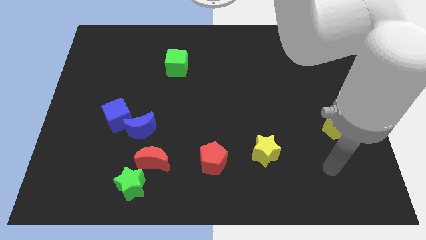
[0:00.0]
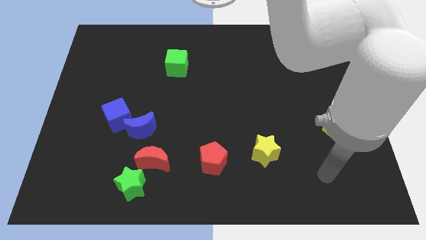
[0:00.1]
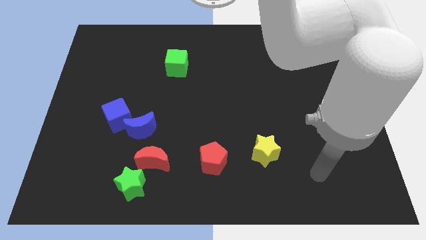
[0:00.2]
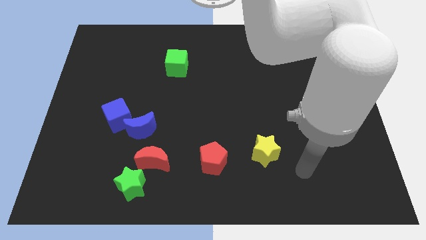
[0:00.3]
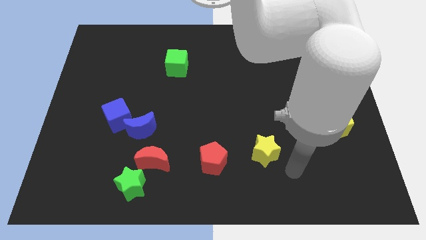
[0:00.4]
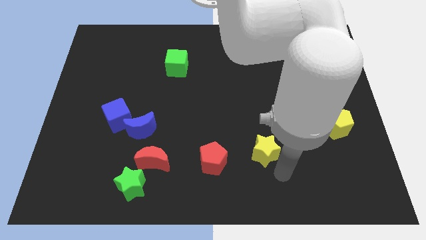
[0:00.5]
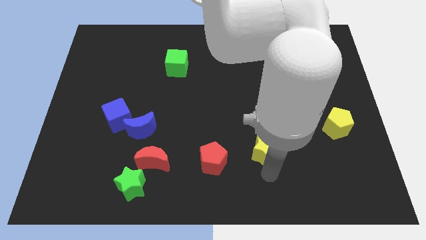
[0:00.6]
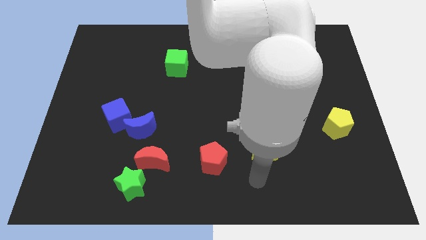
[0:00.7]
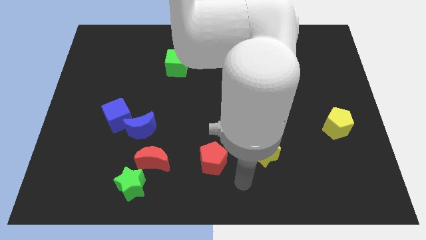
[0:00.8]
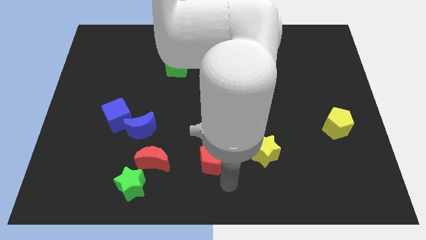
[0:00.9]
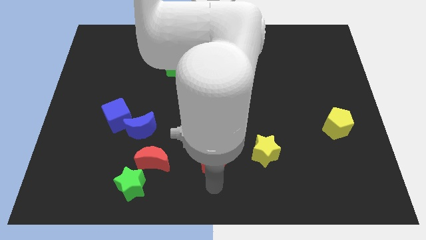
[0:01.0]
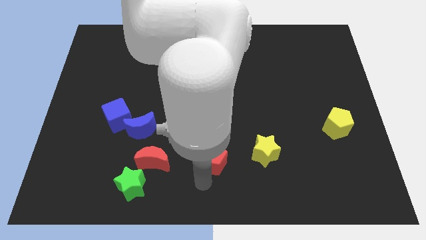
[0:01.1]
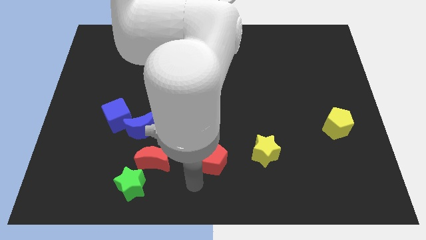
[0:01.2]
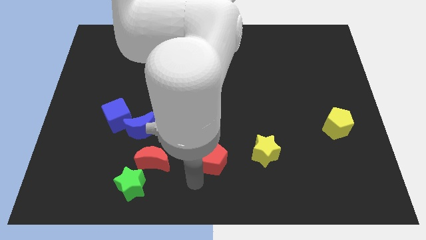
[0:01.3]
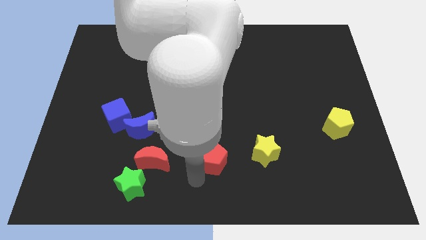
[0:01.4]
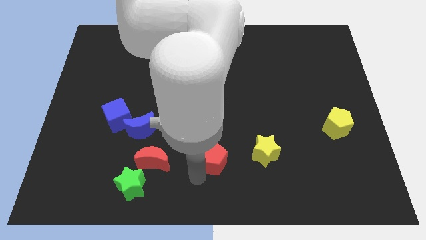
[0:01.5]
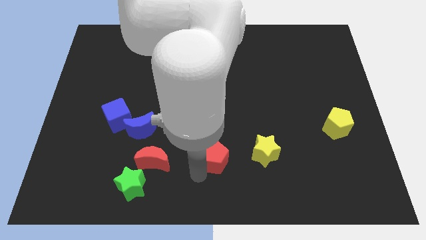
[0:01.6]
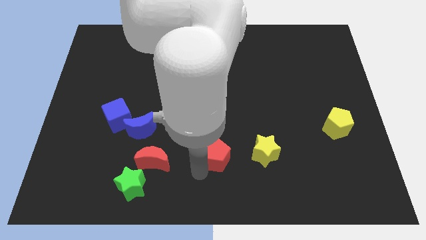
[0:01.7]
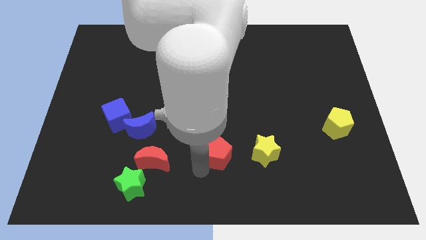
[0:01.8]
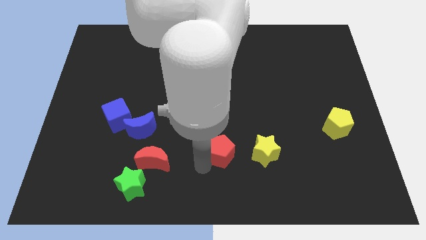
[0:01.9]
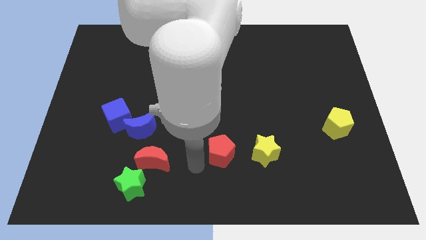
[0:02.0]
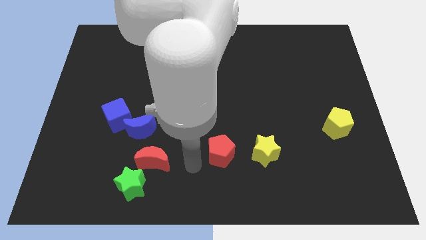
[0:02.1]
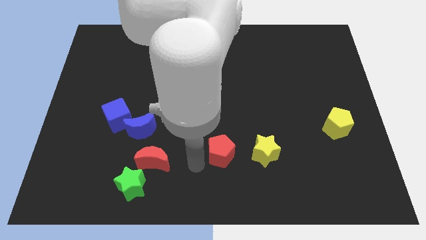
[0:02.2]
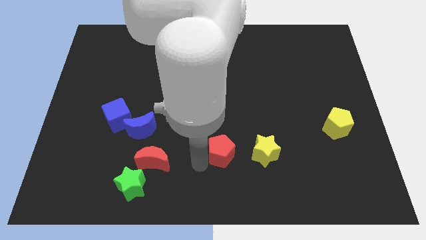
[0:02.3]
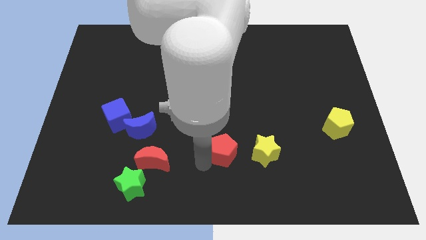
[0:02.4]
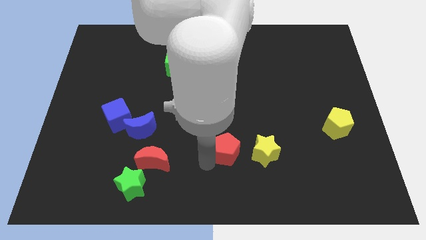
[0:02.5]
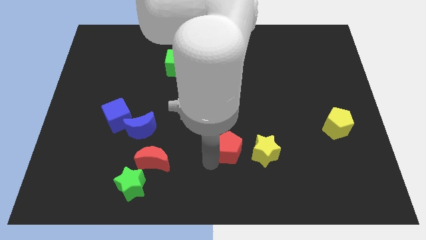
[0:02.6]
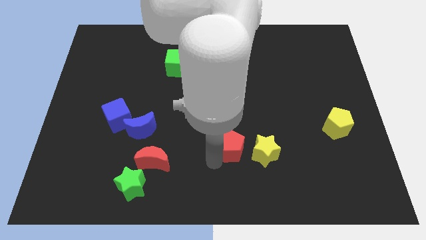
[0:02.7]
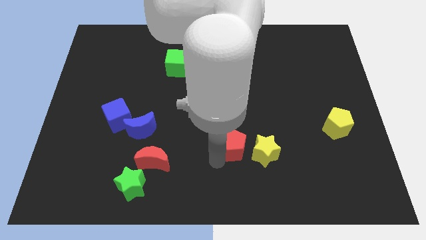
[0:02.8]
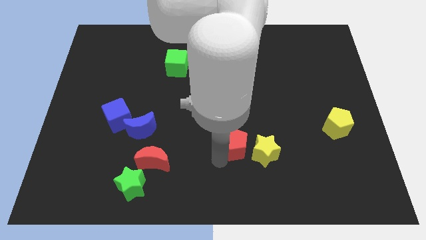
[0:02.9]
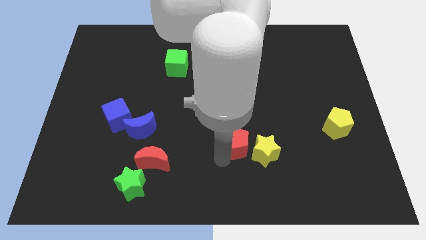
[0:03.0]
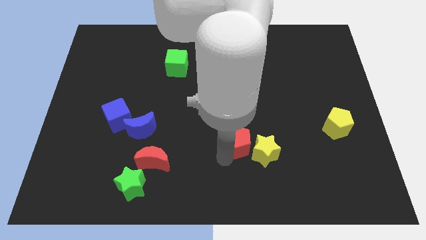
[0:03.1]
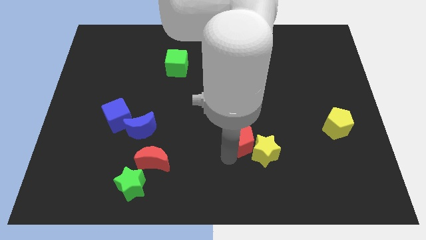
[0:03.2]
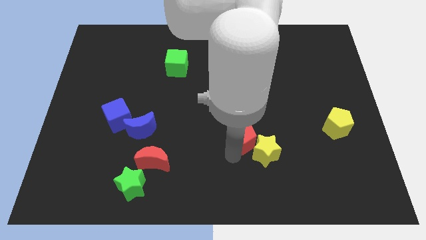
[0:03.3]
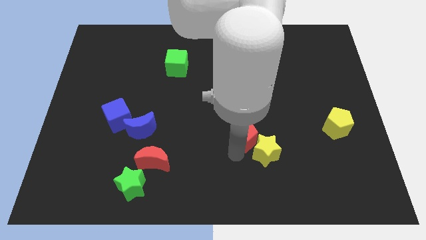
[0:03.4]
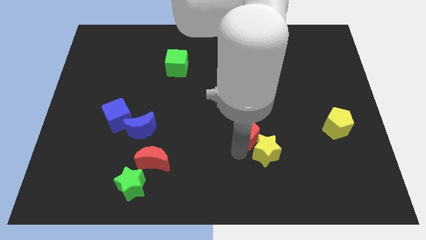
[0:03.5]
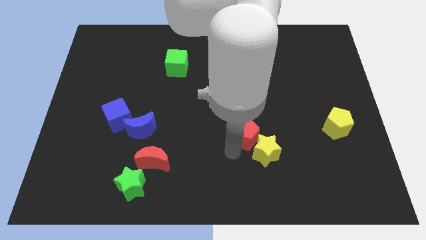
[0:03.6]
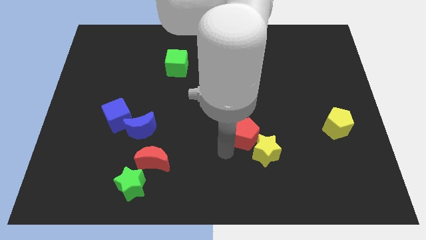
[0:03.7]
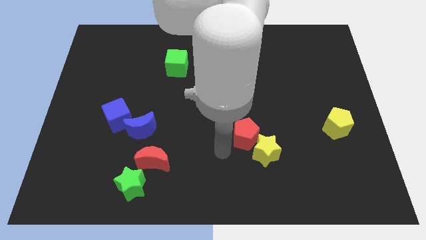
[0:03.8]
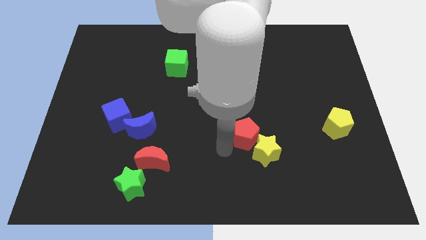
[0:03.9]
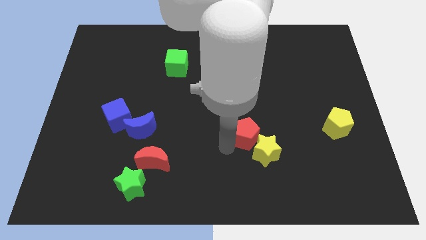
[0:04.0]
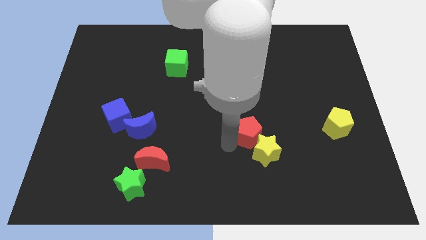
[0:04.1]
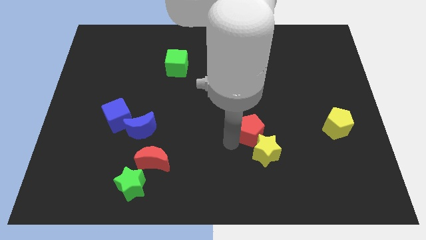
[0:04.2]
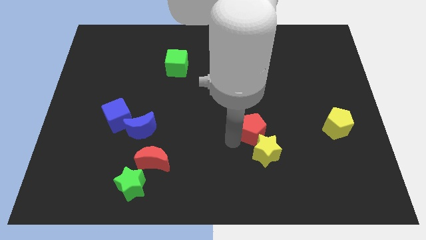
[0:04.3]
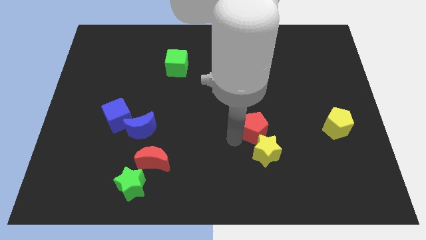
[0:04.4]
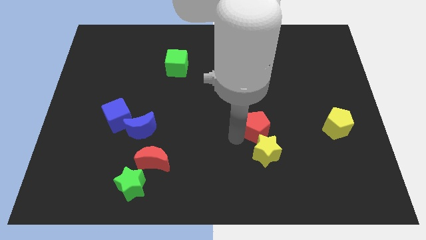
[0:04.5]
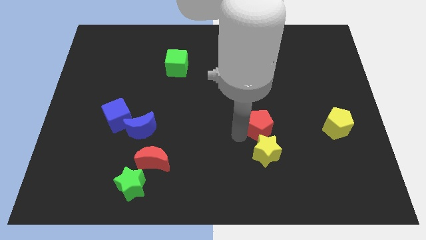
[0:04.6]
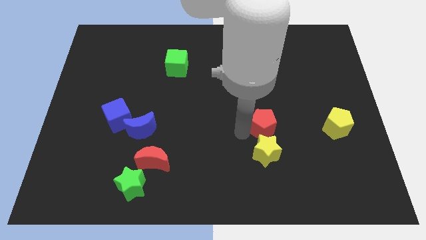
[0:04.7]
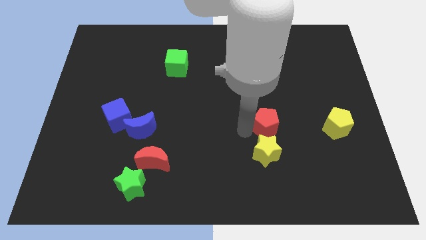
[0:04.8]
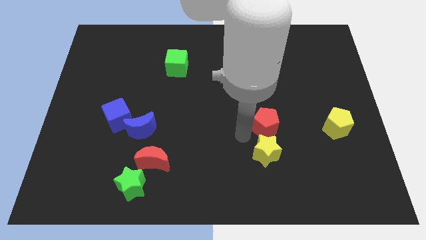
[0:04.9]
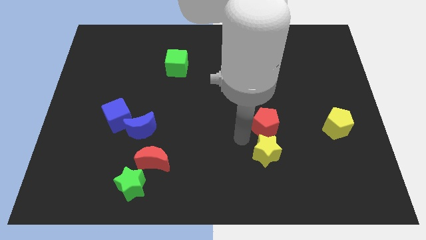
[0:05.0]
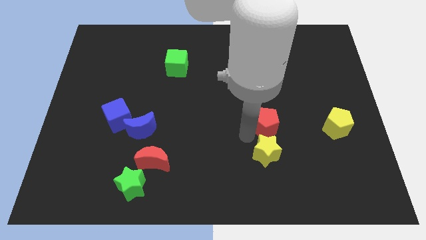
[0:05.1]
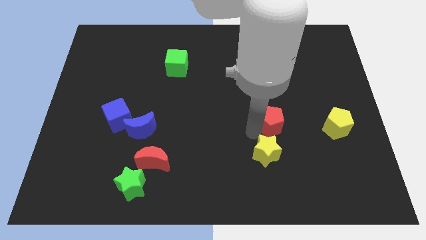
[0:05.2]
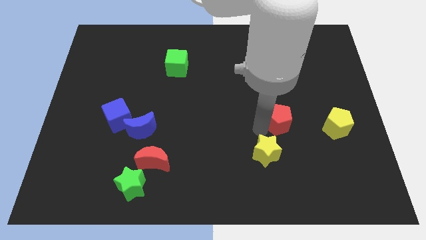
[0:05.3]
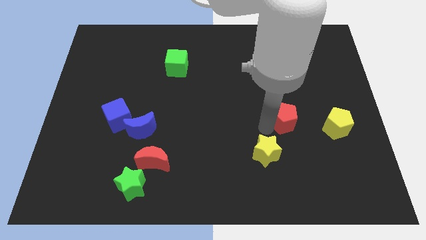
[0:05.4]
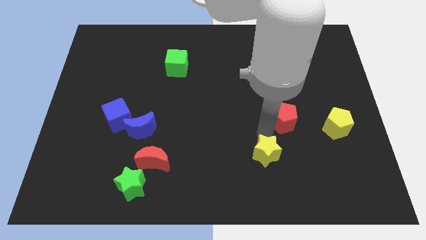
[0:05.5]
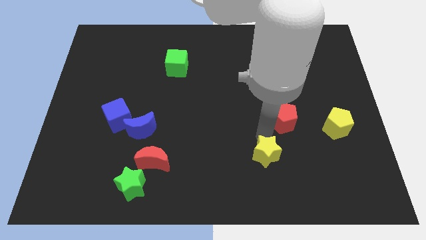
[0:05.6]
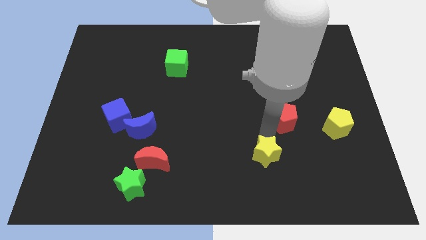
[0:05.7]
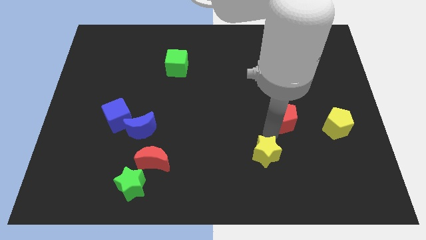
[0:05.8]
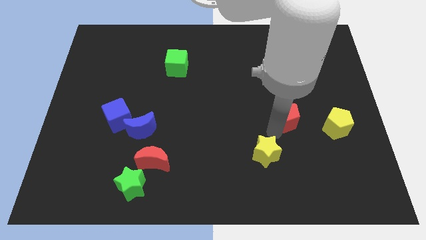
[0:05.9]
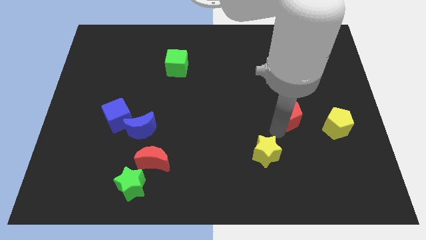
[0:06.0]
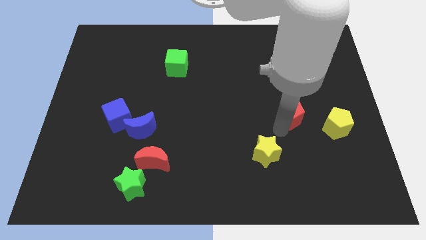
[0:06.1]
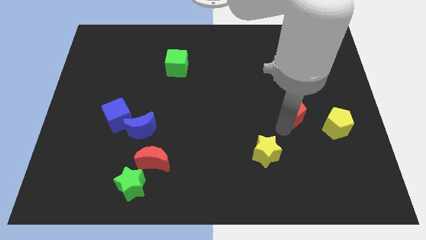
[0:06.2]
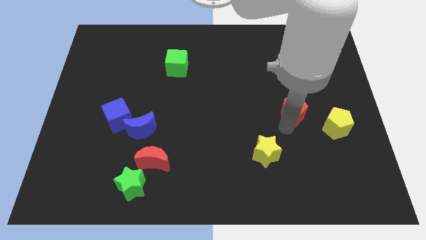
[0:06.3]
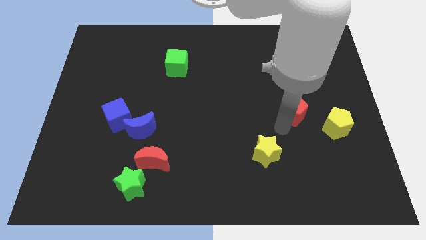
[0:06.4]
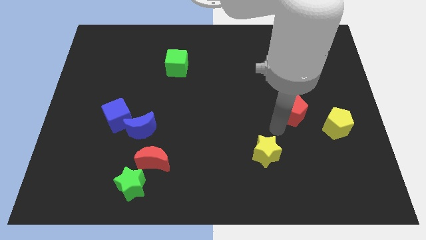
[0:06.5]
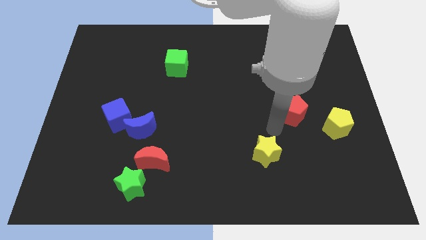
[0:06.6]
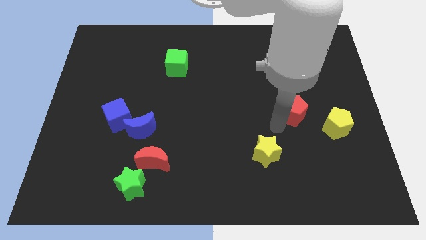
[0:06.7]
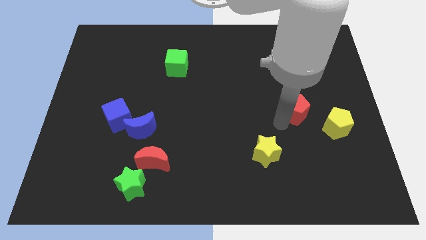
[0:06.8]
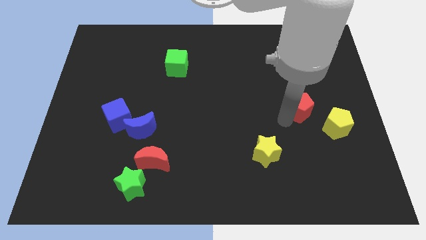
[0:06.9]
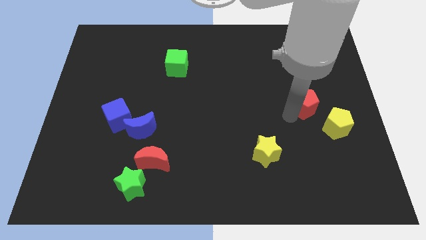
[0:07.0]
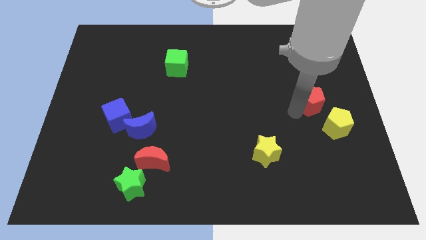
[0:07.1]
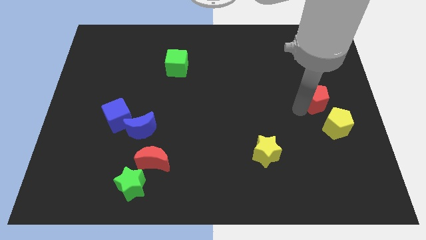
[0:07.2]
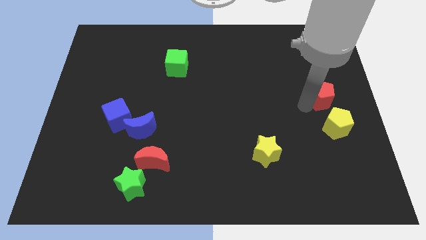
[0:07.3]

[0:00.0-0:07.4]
put the red pentagon to the right side
